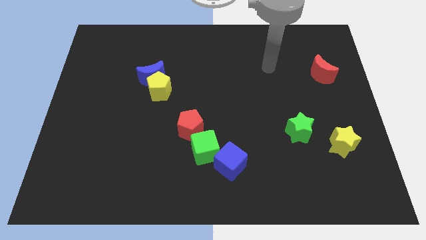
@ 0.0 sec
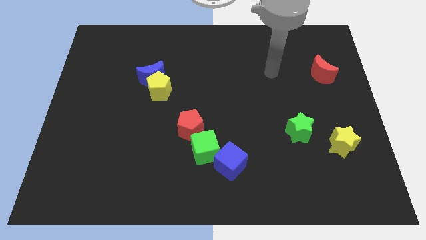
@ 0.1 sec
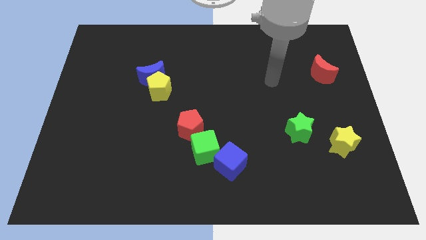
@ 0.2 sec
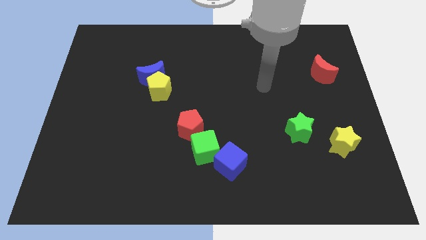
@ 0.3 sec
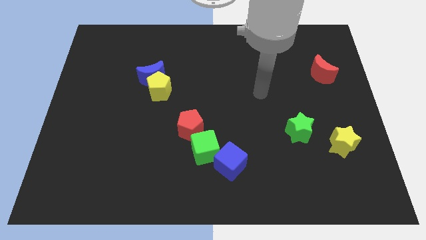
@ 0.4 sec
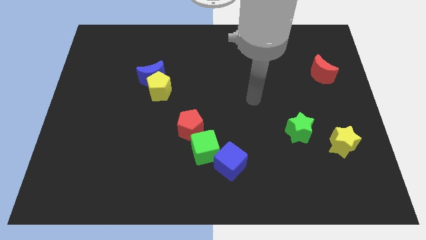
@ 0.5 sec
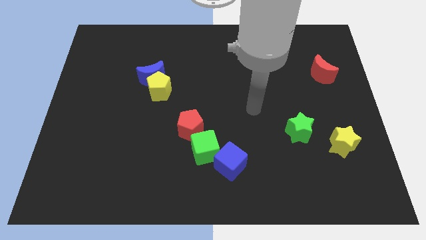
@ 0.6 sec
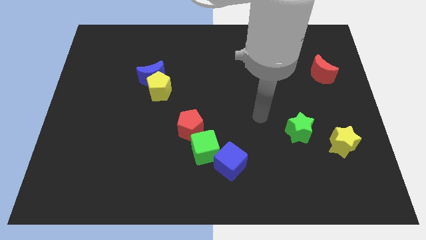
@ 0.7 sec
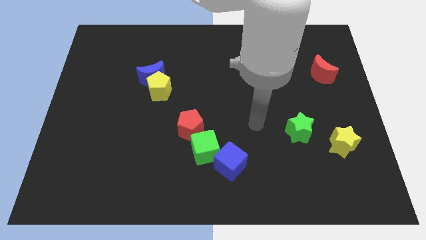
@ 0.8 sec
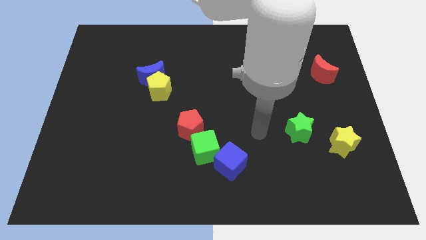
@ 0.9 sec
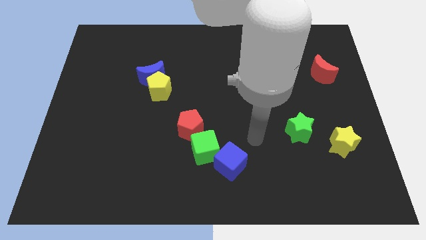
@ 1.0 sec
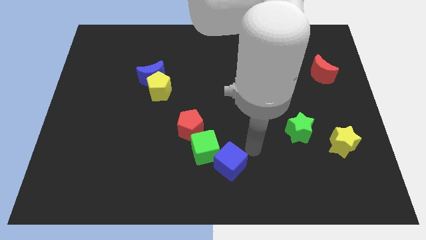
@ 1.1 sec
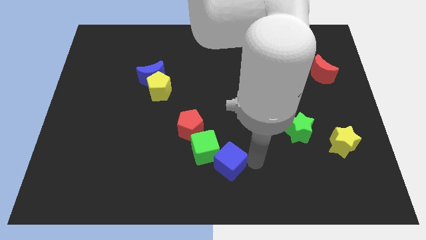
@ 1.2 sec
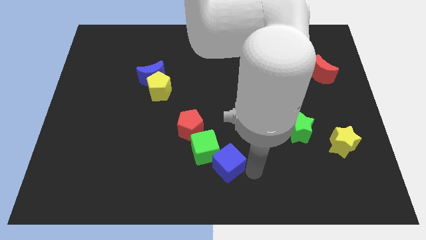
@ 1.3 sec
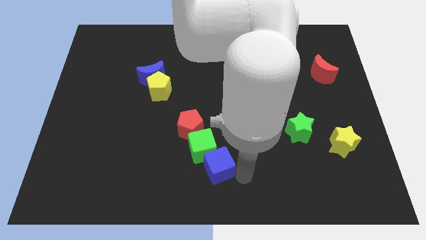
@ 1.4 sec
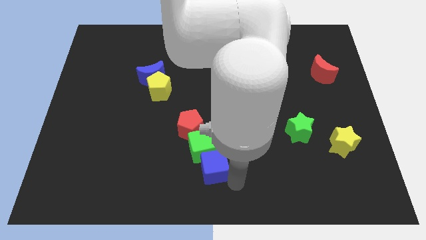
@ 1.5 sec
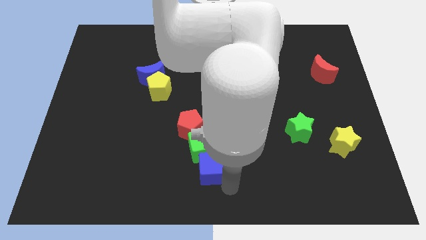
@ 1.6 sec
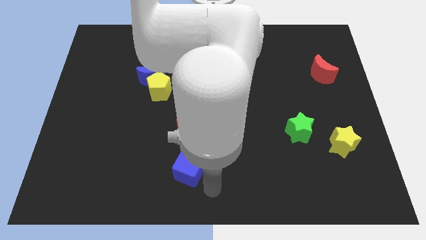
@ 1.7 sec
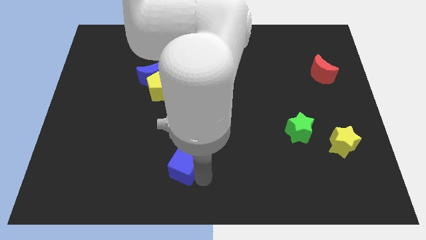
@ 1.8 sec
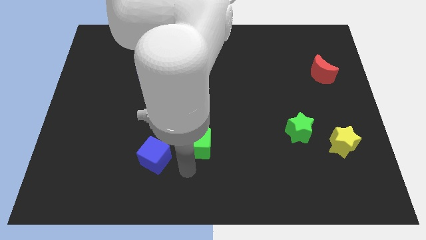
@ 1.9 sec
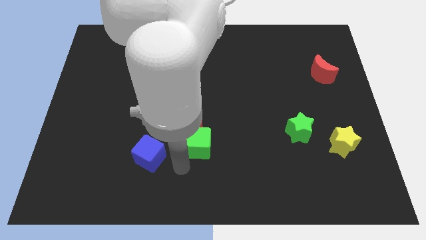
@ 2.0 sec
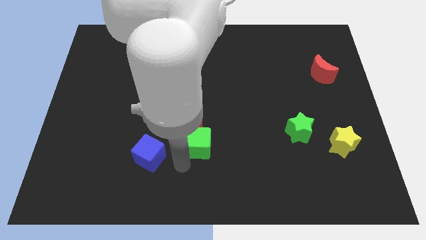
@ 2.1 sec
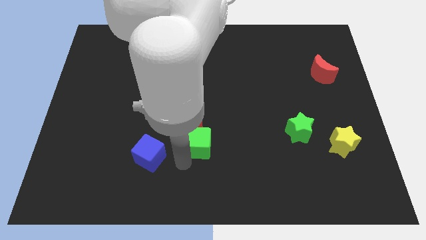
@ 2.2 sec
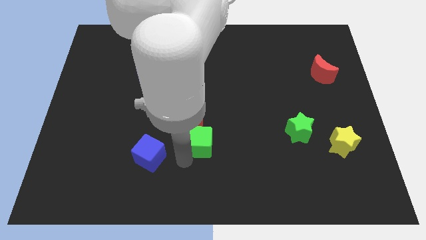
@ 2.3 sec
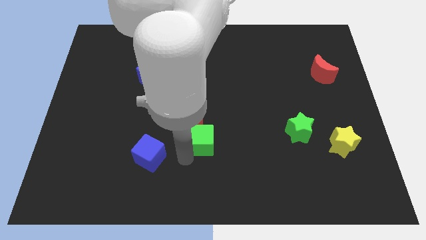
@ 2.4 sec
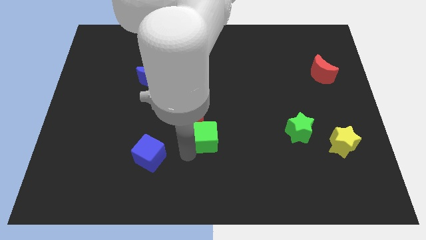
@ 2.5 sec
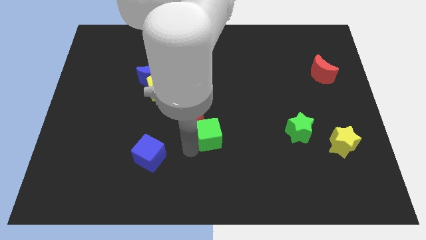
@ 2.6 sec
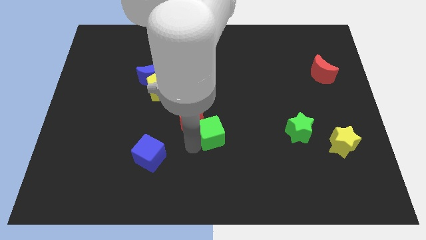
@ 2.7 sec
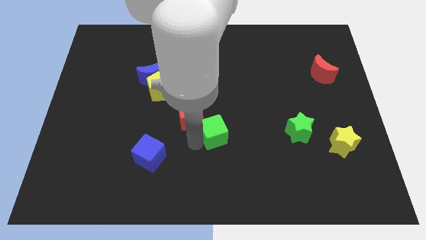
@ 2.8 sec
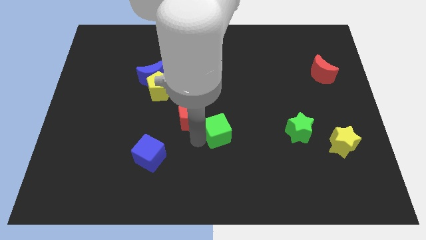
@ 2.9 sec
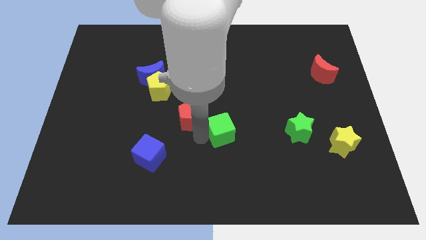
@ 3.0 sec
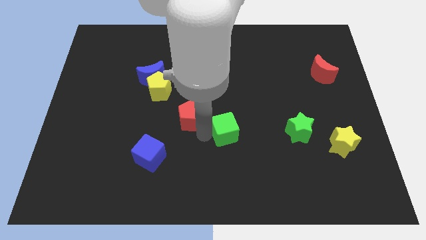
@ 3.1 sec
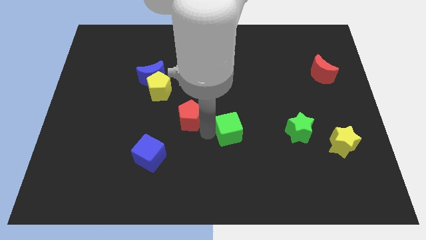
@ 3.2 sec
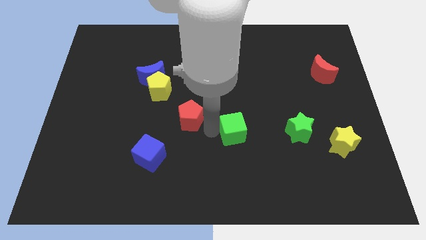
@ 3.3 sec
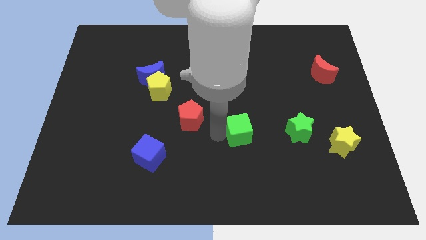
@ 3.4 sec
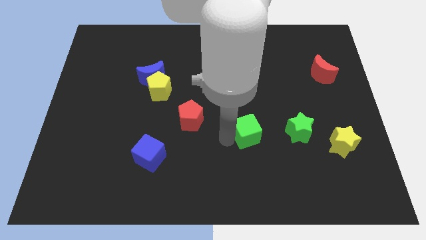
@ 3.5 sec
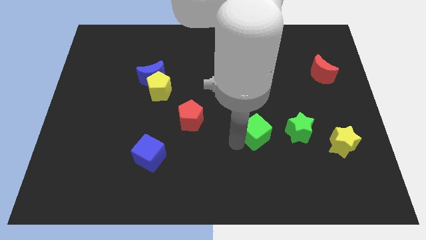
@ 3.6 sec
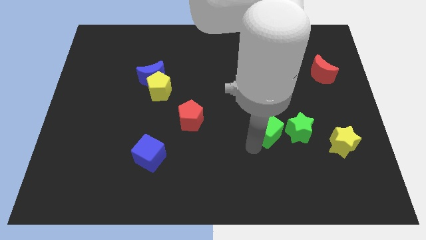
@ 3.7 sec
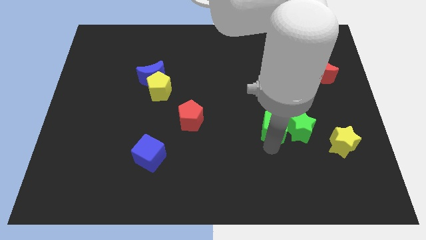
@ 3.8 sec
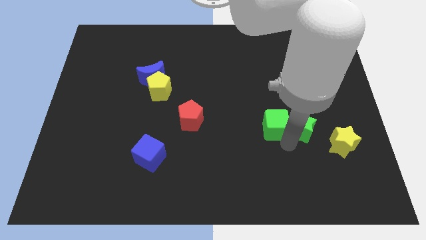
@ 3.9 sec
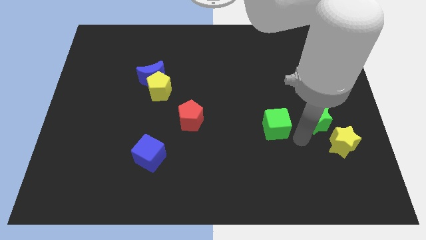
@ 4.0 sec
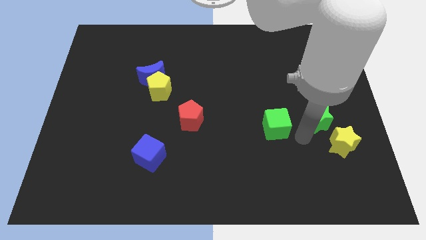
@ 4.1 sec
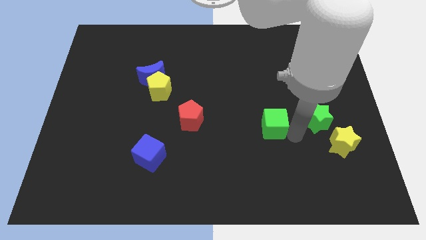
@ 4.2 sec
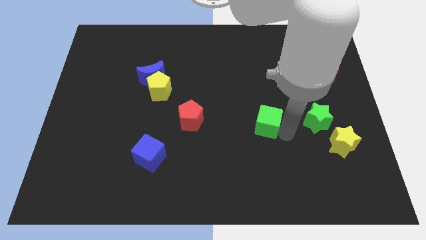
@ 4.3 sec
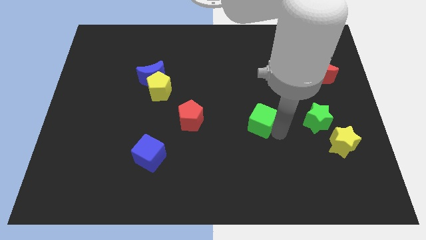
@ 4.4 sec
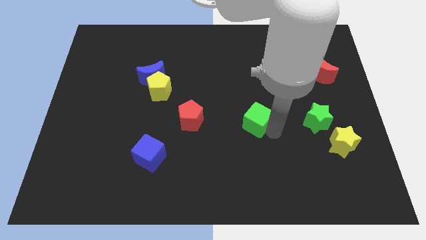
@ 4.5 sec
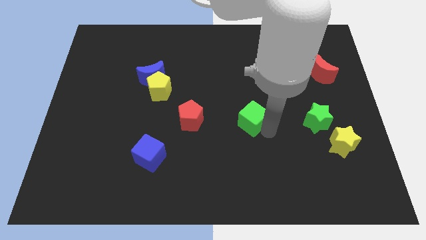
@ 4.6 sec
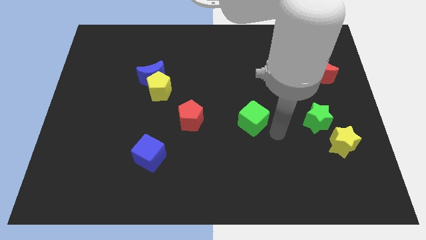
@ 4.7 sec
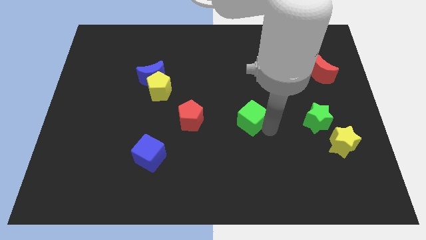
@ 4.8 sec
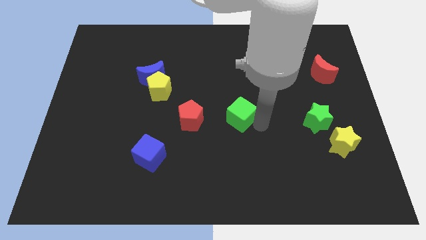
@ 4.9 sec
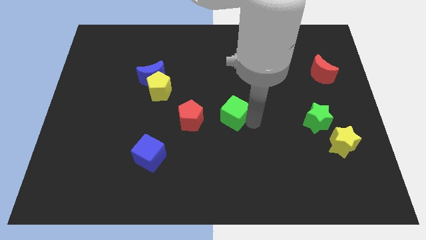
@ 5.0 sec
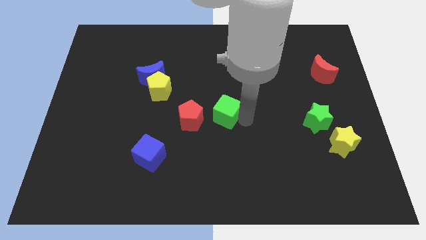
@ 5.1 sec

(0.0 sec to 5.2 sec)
slide the green cube to the top right of the red pentagon

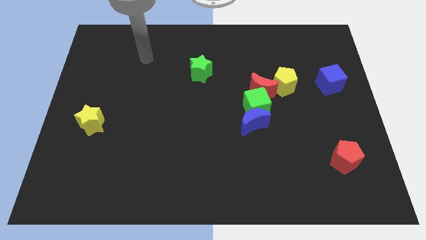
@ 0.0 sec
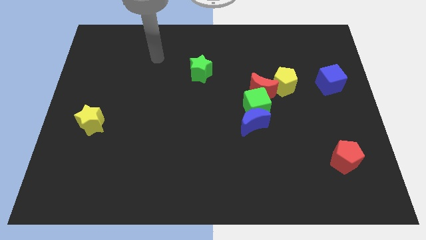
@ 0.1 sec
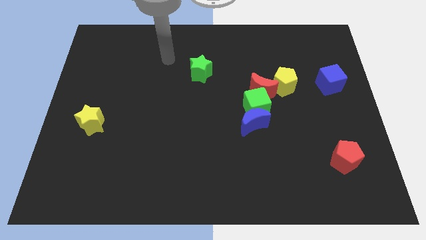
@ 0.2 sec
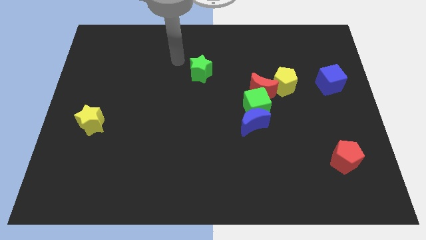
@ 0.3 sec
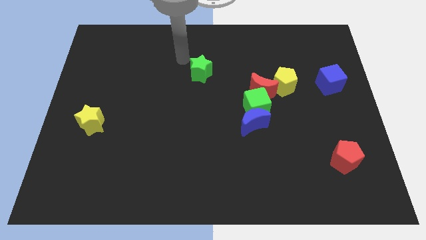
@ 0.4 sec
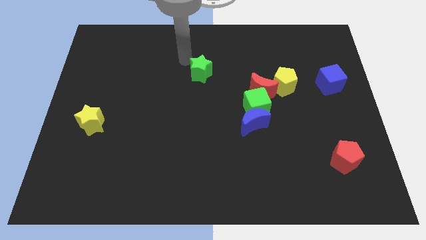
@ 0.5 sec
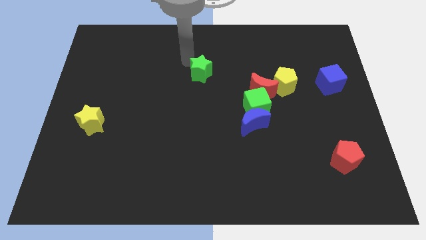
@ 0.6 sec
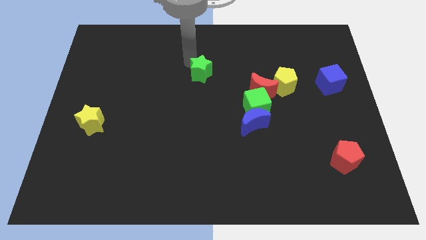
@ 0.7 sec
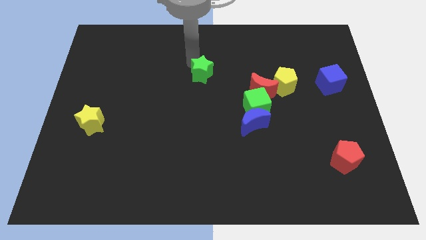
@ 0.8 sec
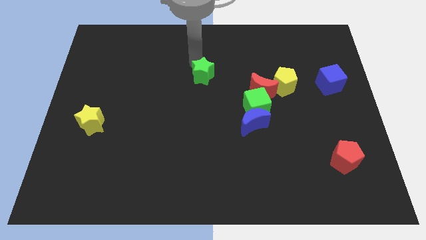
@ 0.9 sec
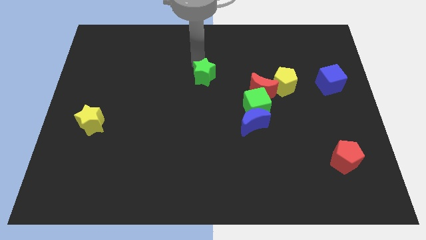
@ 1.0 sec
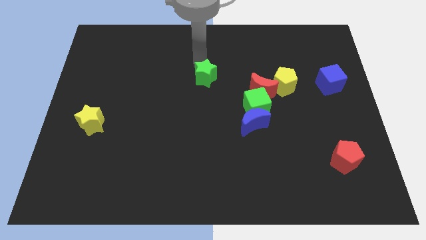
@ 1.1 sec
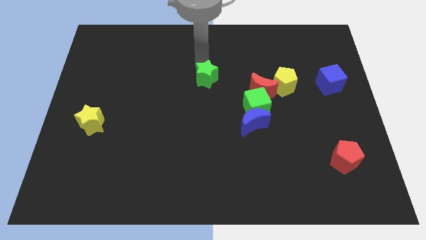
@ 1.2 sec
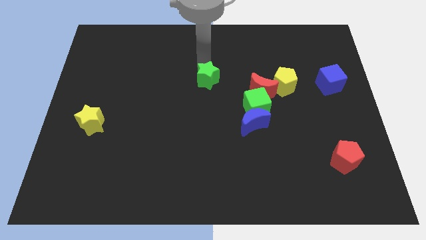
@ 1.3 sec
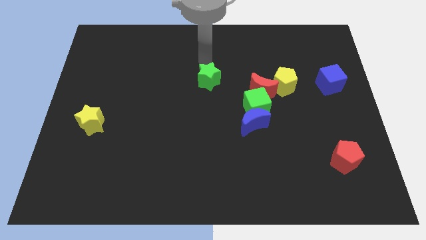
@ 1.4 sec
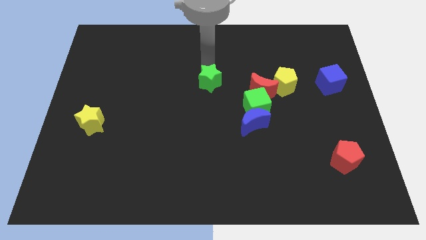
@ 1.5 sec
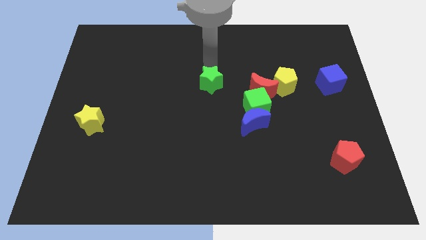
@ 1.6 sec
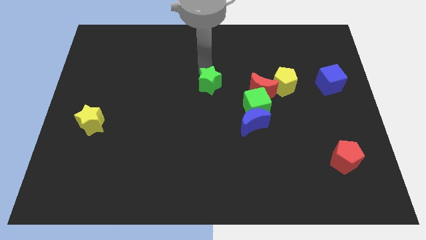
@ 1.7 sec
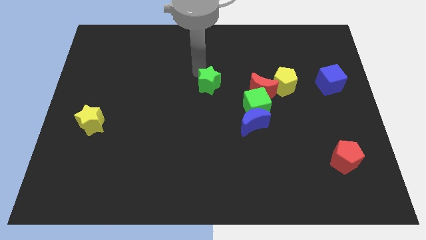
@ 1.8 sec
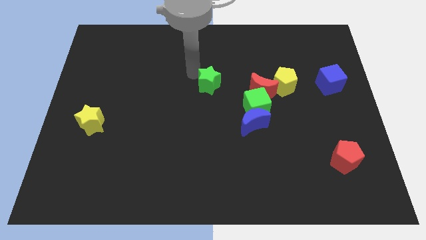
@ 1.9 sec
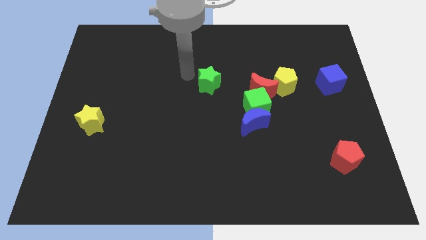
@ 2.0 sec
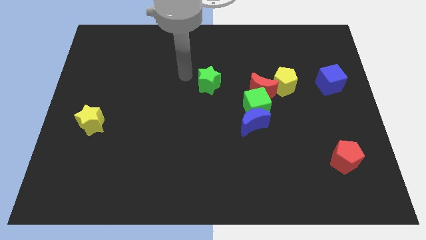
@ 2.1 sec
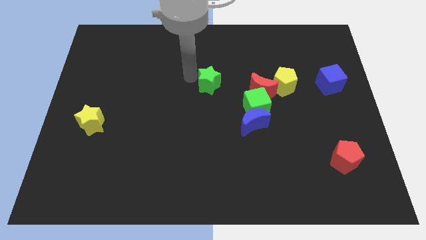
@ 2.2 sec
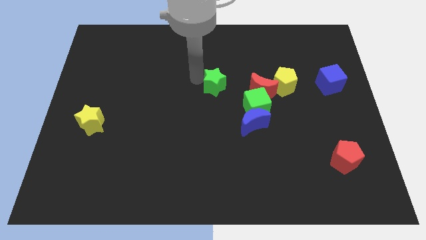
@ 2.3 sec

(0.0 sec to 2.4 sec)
put the green star to the top left side of the green cube
